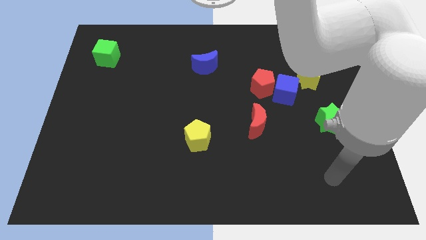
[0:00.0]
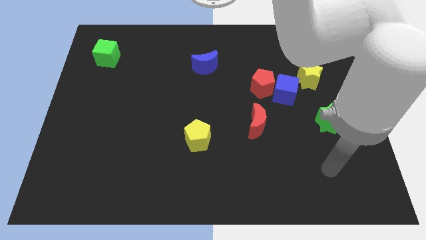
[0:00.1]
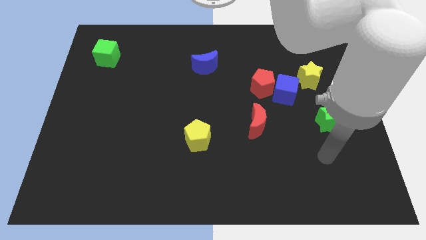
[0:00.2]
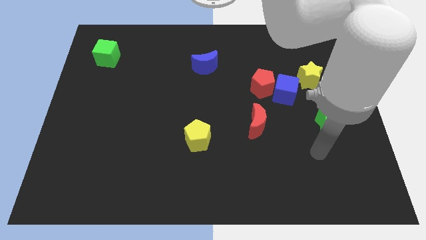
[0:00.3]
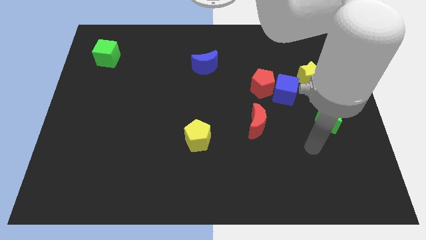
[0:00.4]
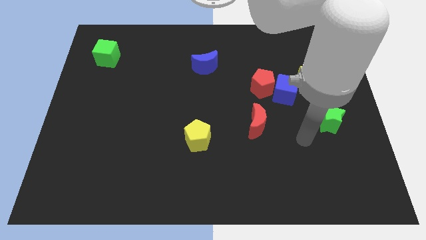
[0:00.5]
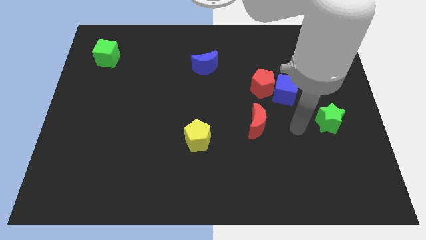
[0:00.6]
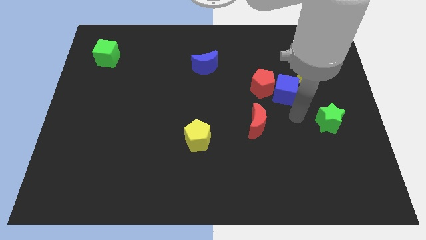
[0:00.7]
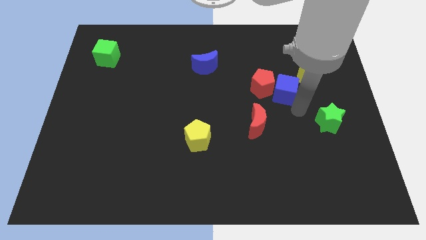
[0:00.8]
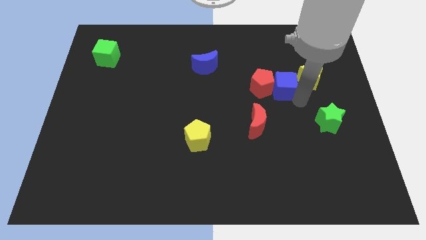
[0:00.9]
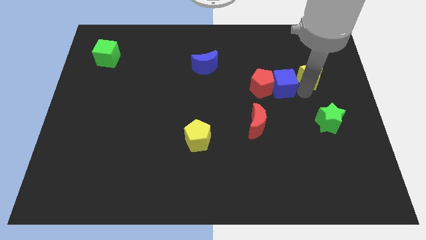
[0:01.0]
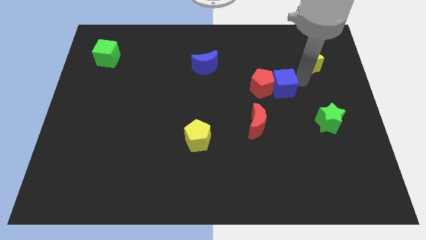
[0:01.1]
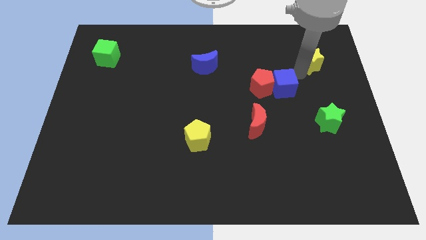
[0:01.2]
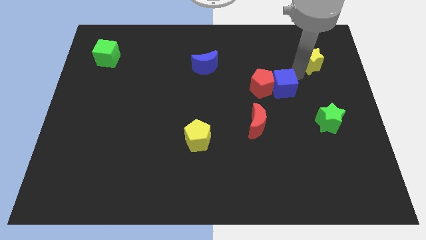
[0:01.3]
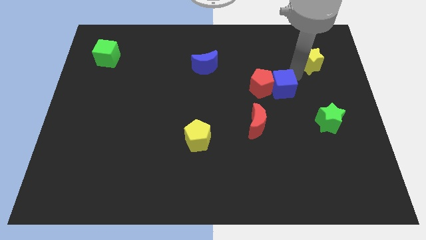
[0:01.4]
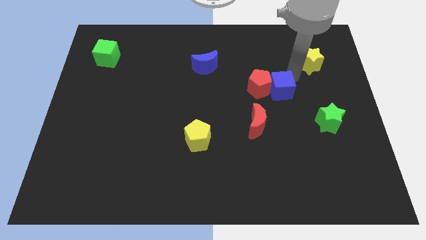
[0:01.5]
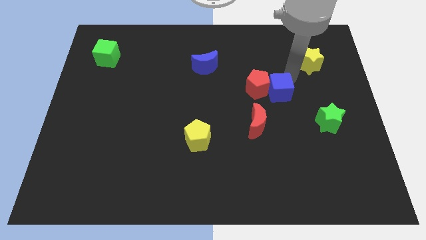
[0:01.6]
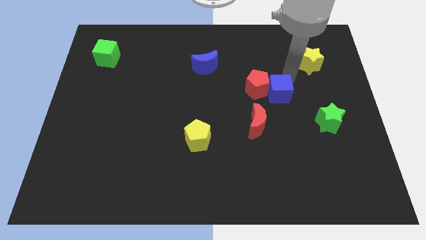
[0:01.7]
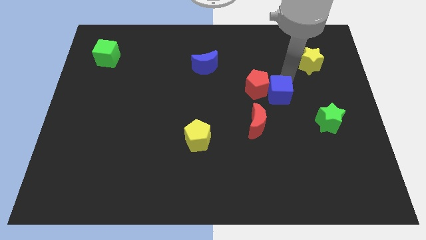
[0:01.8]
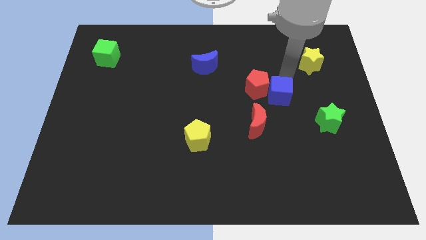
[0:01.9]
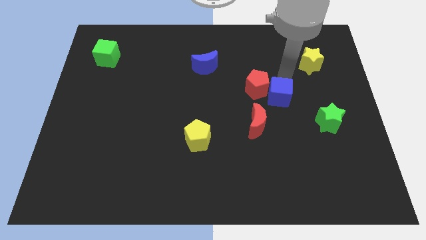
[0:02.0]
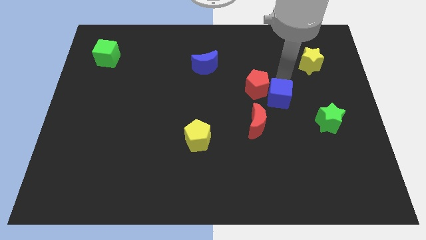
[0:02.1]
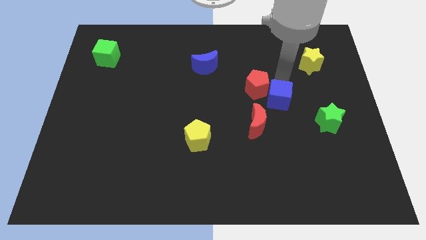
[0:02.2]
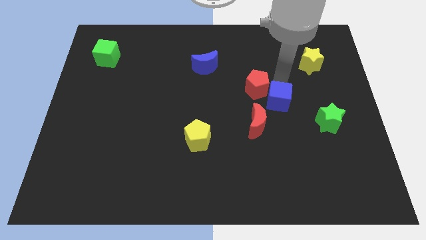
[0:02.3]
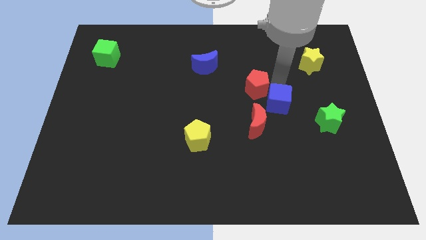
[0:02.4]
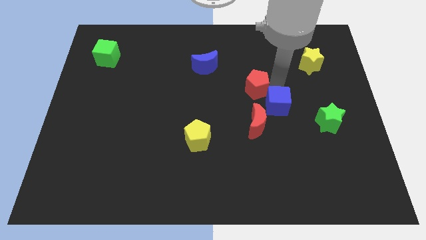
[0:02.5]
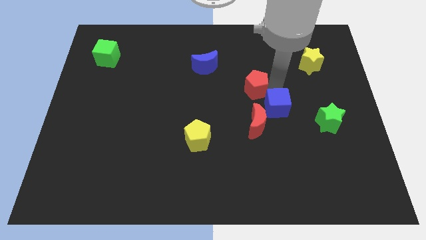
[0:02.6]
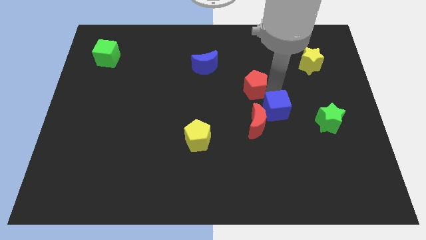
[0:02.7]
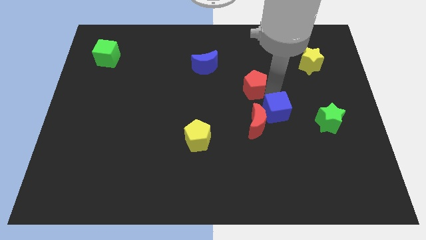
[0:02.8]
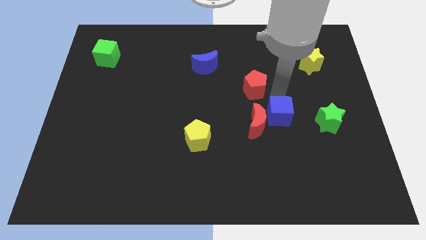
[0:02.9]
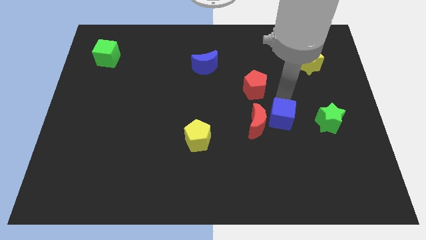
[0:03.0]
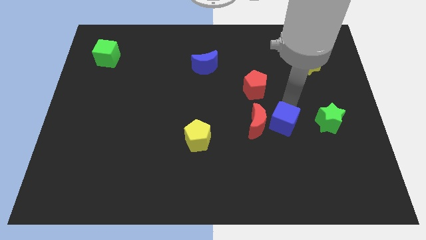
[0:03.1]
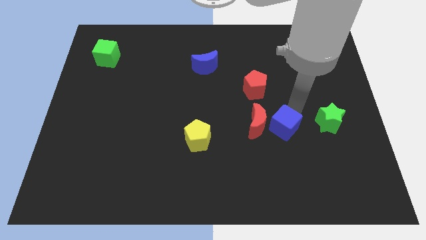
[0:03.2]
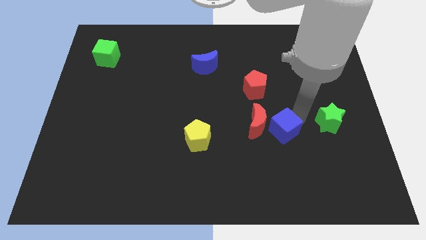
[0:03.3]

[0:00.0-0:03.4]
move the blue cube downwards and left a little bit

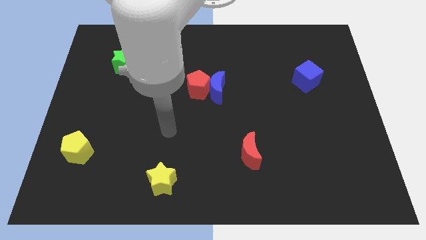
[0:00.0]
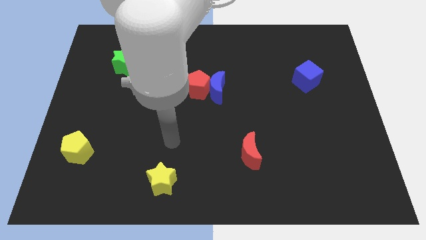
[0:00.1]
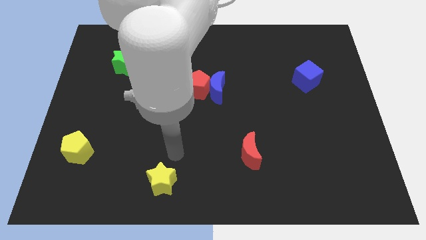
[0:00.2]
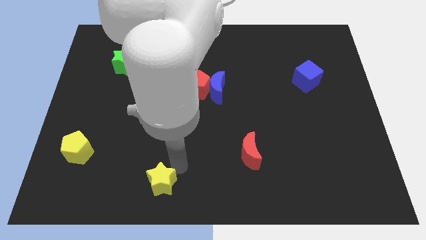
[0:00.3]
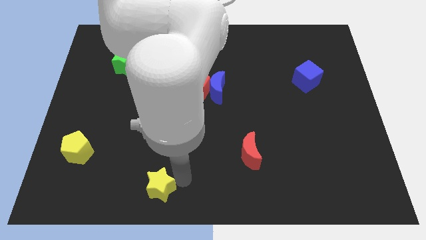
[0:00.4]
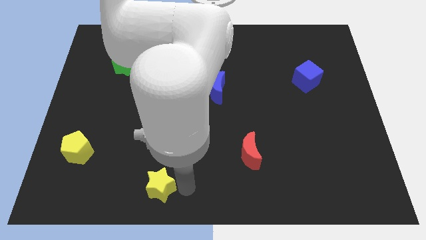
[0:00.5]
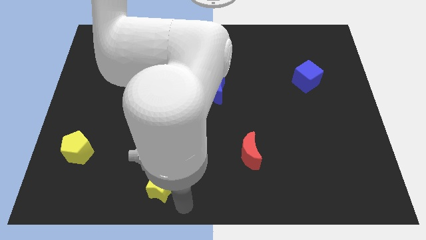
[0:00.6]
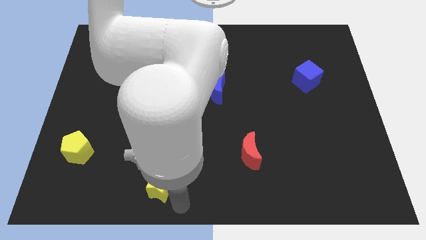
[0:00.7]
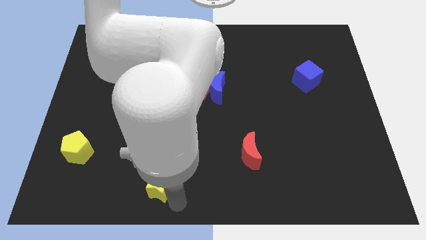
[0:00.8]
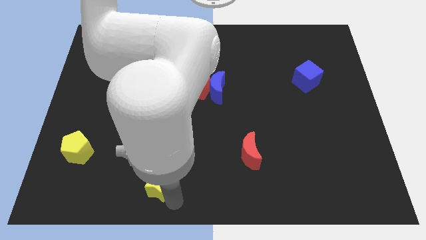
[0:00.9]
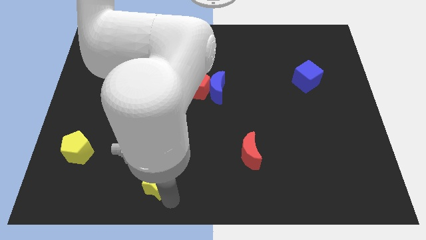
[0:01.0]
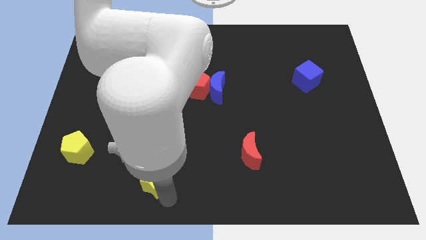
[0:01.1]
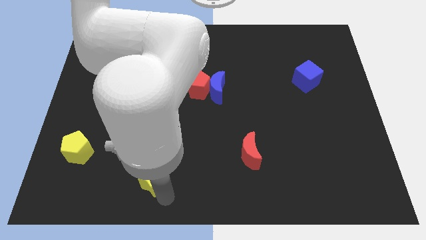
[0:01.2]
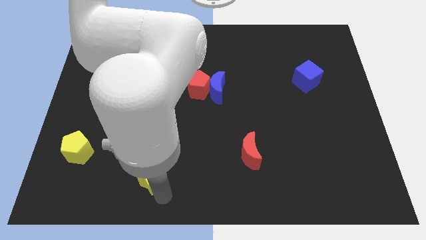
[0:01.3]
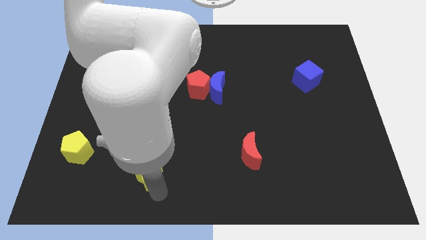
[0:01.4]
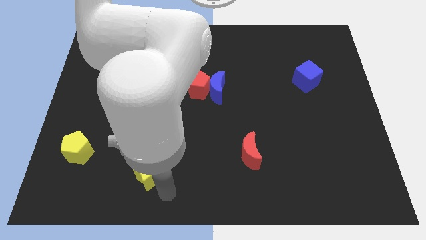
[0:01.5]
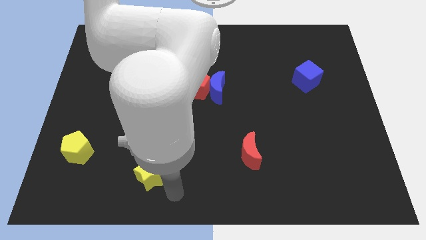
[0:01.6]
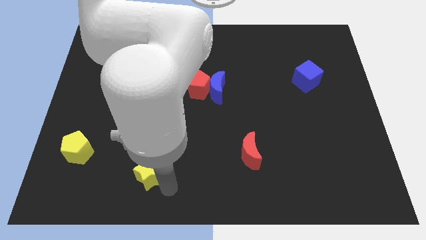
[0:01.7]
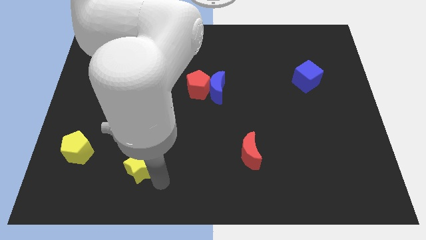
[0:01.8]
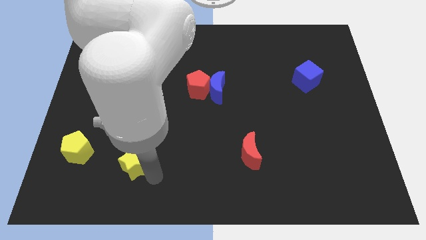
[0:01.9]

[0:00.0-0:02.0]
slightly push the yellow star up and to the left

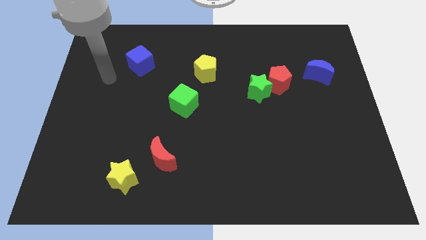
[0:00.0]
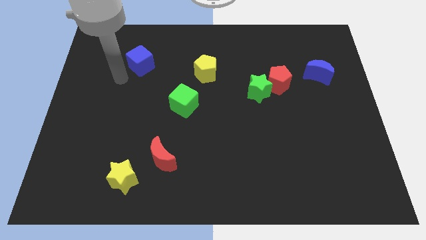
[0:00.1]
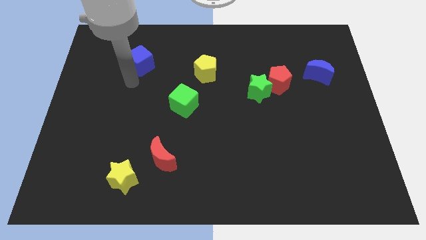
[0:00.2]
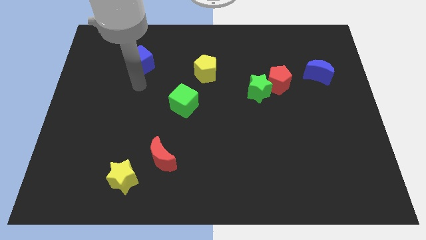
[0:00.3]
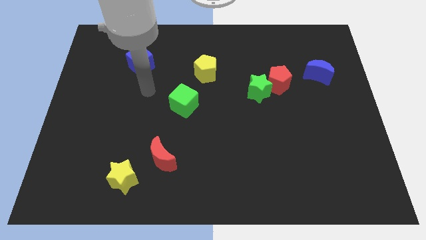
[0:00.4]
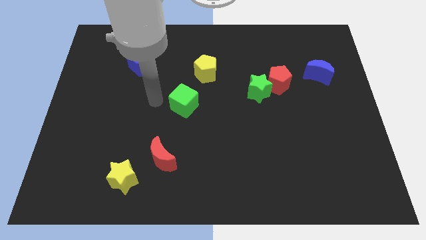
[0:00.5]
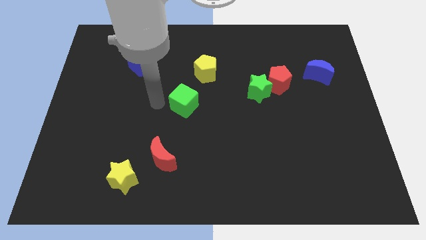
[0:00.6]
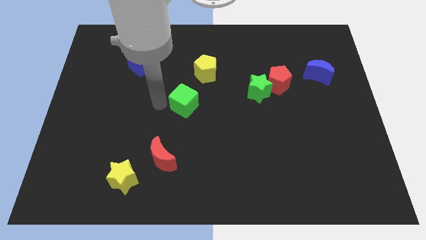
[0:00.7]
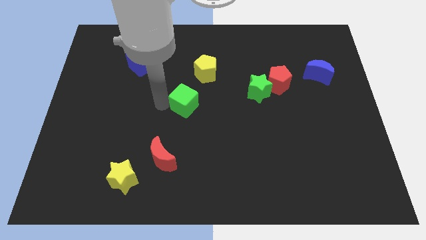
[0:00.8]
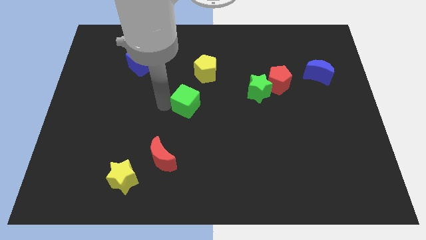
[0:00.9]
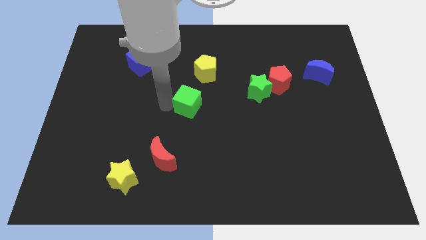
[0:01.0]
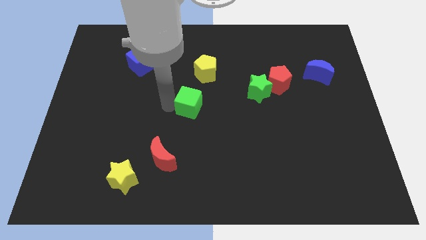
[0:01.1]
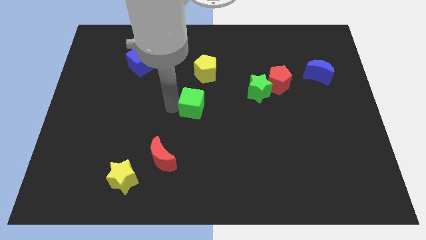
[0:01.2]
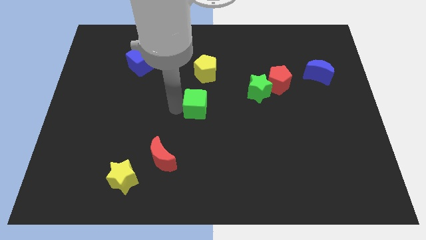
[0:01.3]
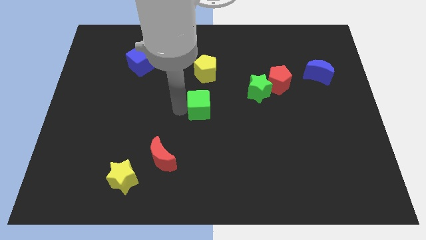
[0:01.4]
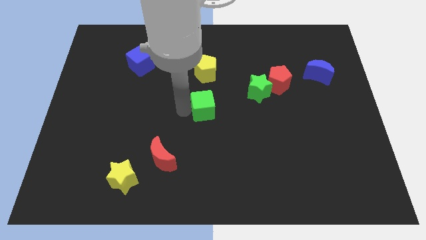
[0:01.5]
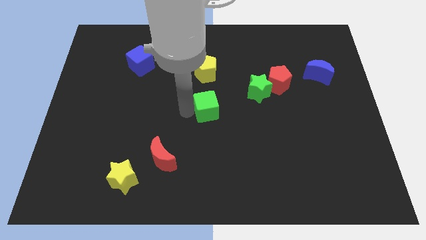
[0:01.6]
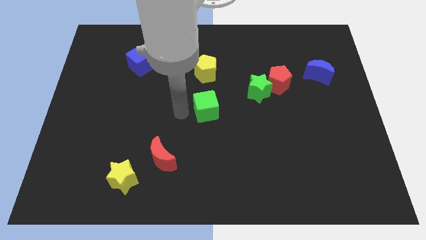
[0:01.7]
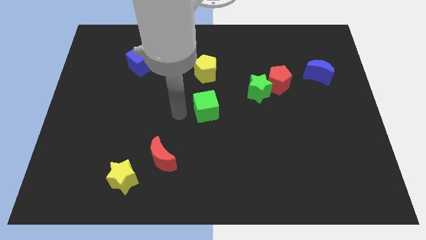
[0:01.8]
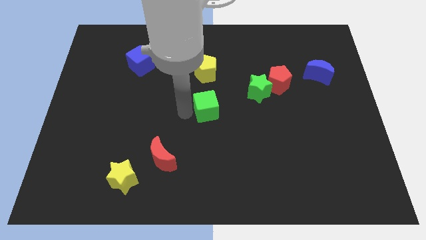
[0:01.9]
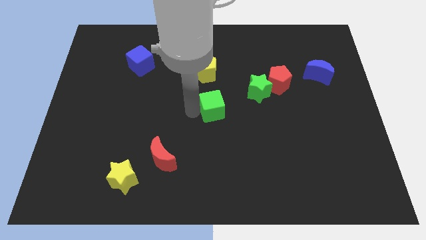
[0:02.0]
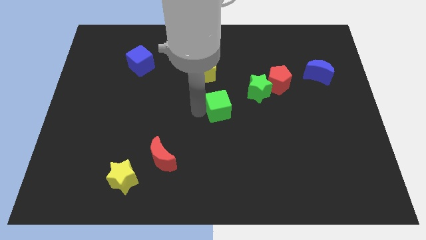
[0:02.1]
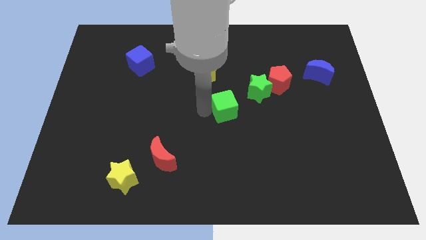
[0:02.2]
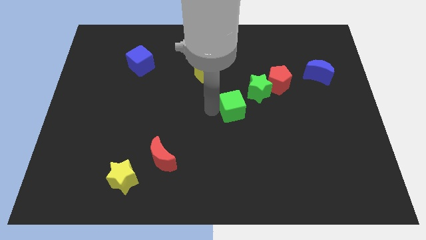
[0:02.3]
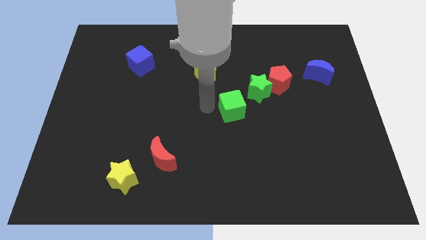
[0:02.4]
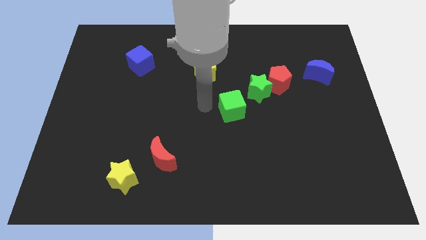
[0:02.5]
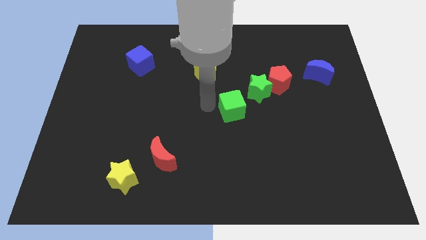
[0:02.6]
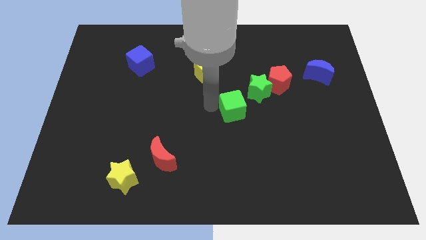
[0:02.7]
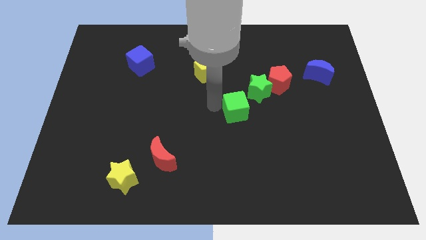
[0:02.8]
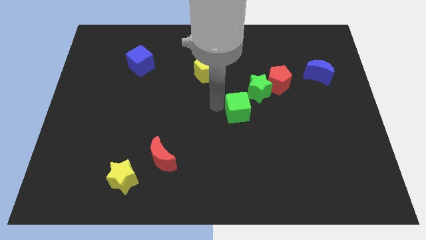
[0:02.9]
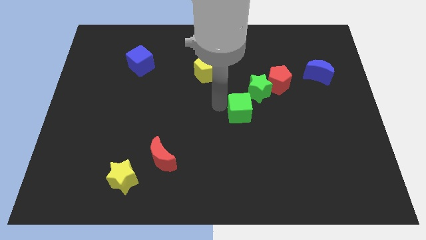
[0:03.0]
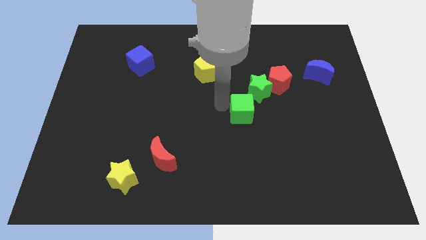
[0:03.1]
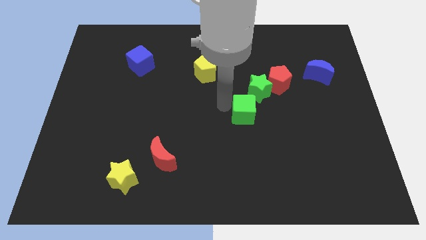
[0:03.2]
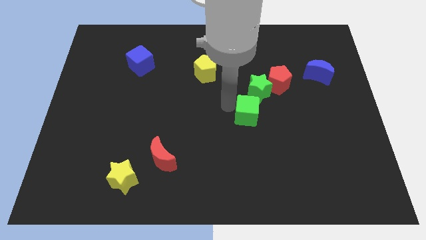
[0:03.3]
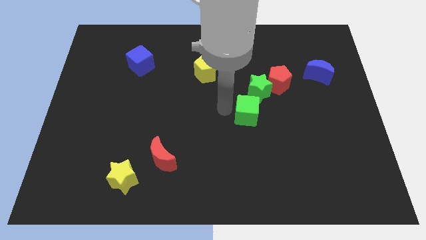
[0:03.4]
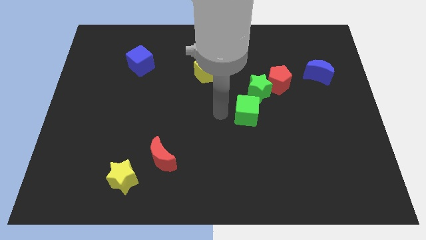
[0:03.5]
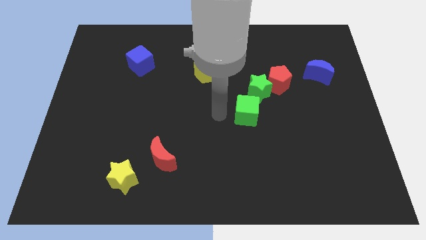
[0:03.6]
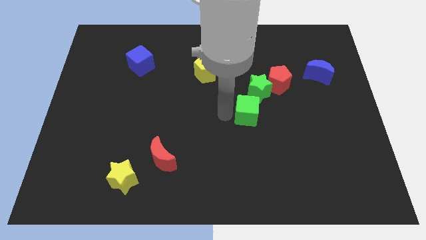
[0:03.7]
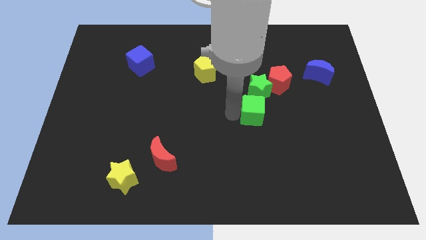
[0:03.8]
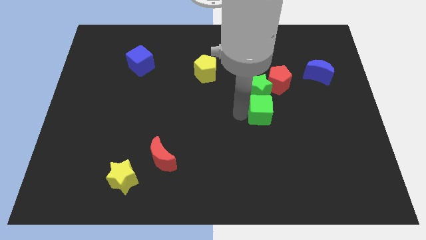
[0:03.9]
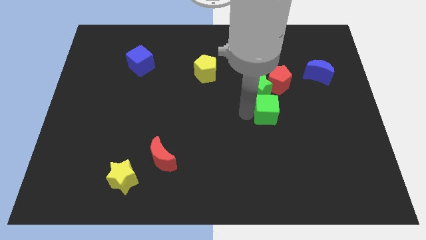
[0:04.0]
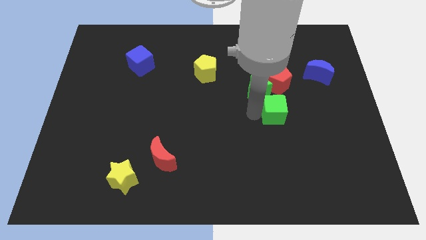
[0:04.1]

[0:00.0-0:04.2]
move the green cube to the right
